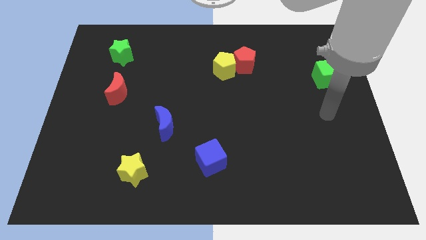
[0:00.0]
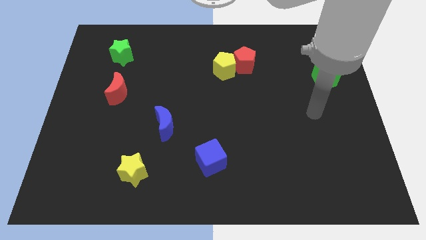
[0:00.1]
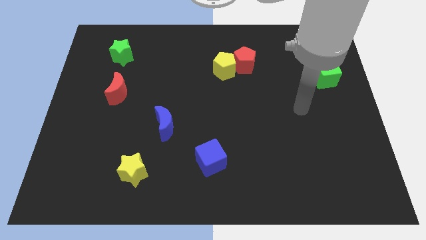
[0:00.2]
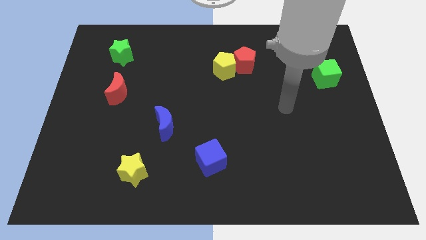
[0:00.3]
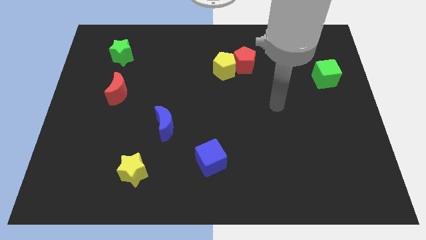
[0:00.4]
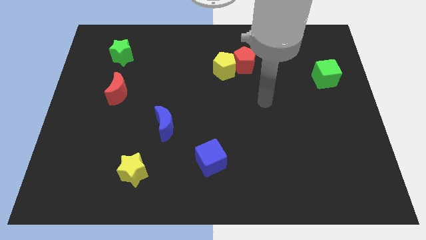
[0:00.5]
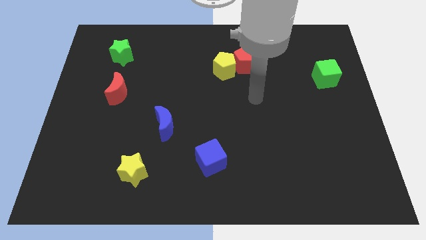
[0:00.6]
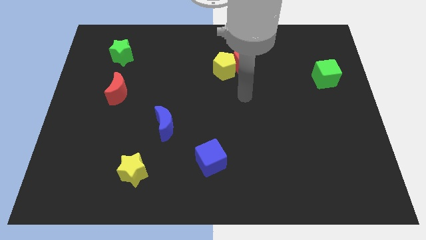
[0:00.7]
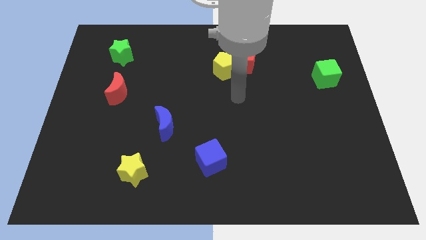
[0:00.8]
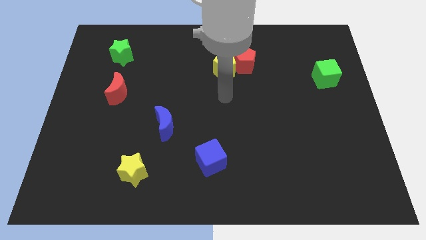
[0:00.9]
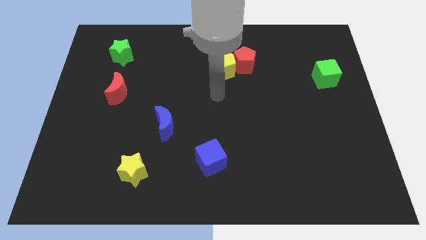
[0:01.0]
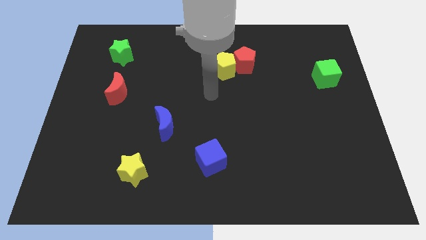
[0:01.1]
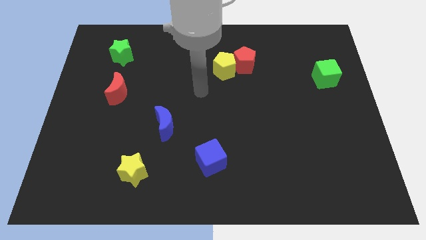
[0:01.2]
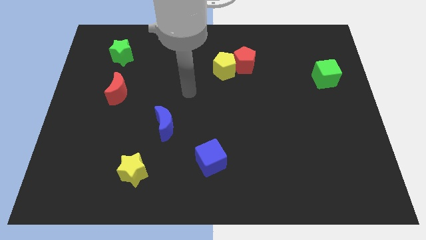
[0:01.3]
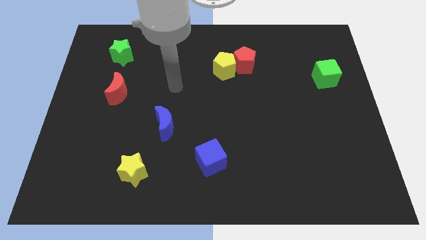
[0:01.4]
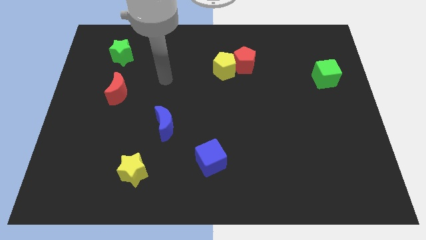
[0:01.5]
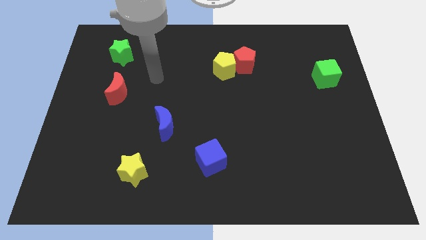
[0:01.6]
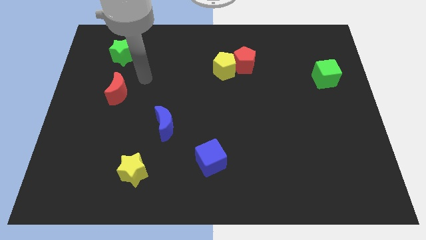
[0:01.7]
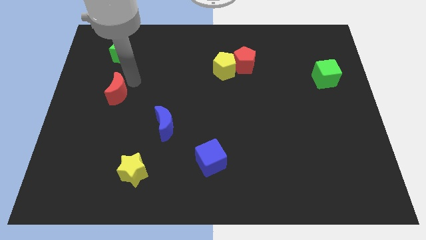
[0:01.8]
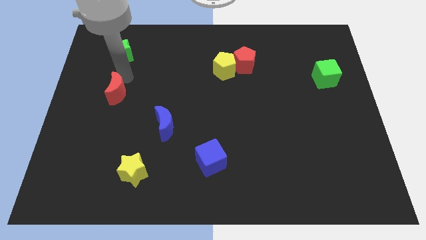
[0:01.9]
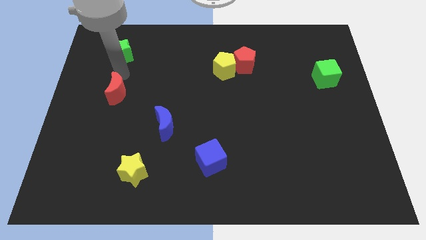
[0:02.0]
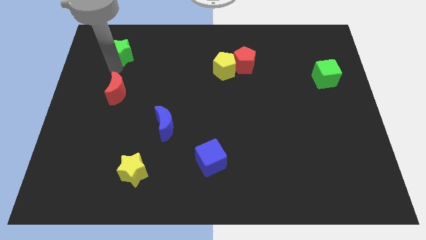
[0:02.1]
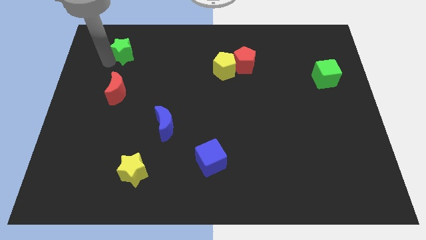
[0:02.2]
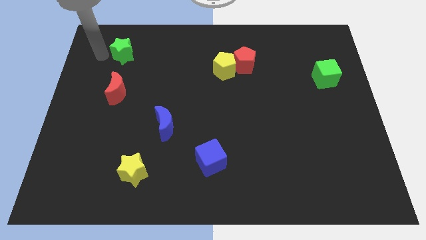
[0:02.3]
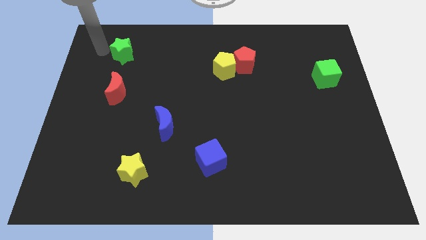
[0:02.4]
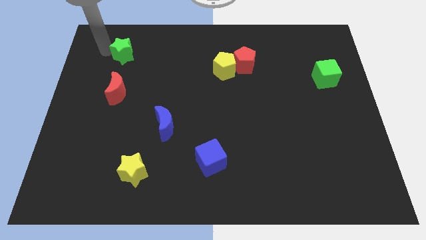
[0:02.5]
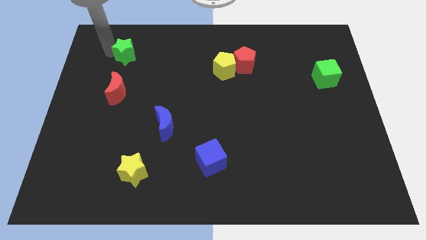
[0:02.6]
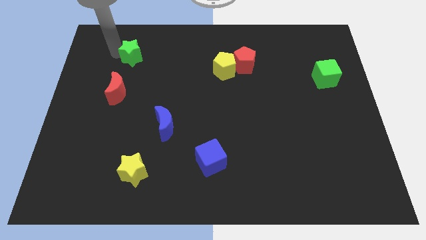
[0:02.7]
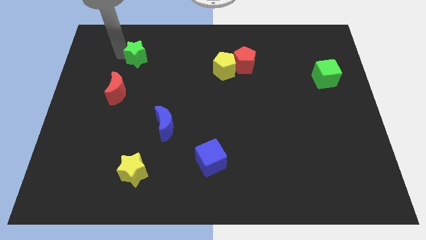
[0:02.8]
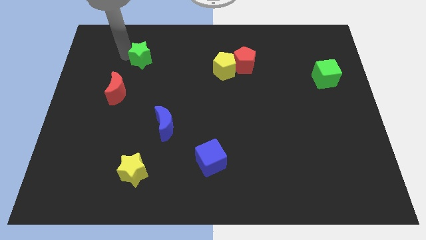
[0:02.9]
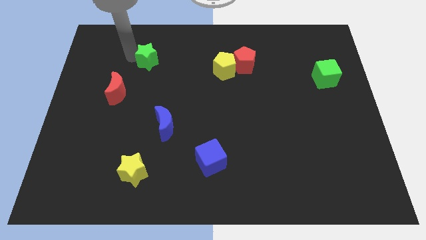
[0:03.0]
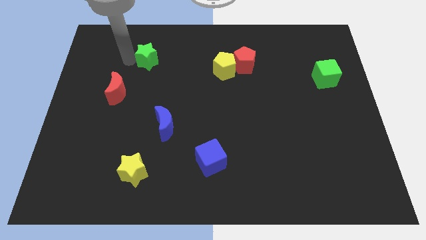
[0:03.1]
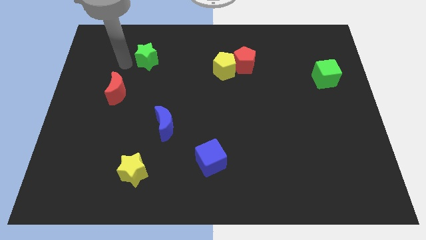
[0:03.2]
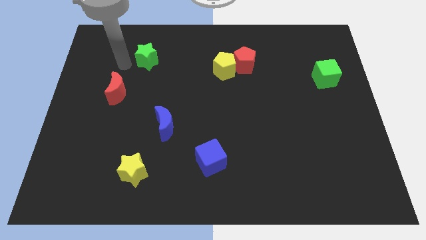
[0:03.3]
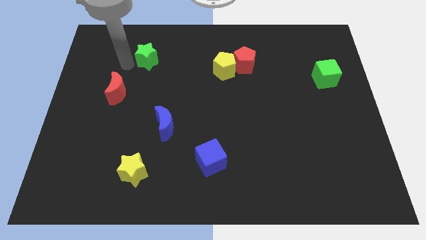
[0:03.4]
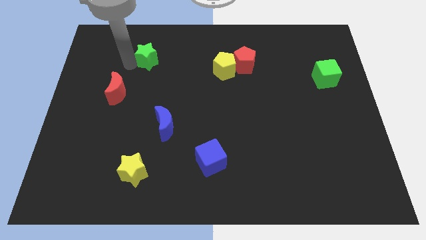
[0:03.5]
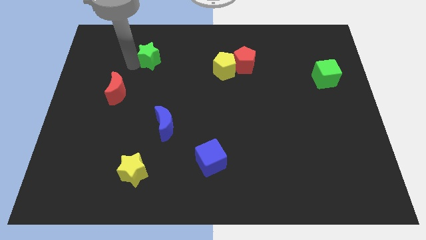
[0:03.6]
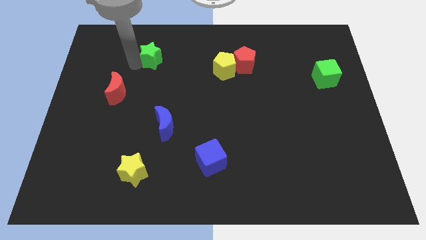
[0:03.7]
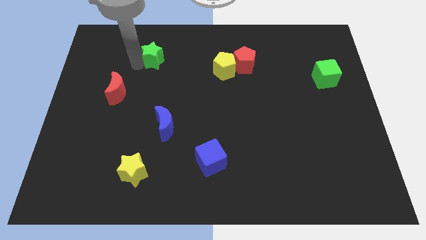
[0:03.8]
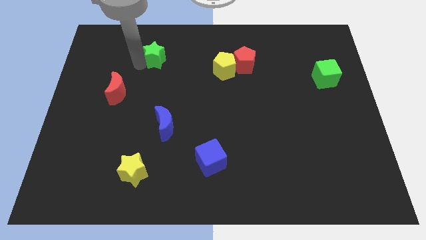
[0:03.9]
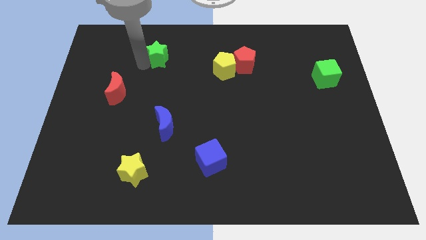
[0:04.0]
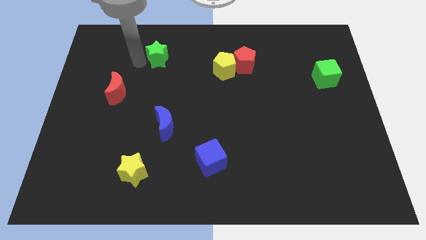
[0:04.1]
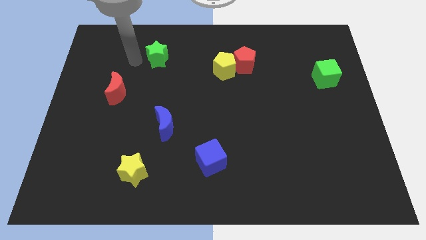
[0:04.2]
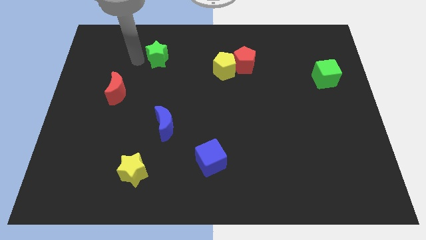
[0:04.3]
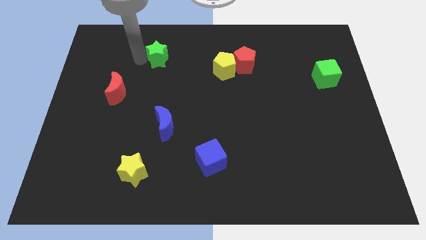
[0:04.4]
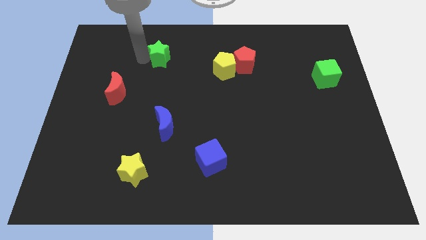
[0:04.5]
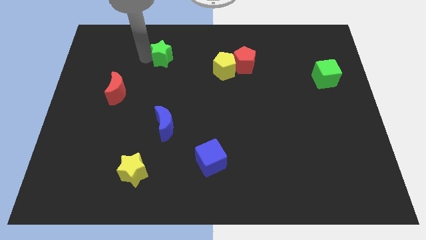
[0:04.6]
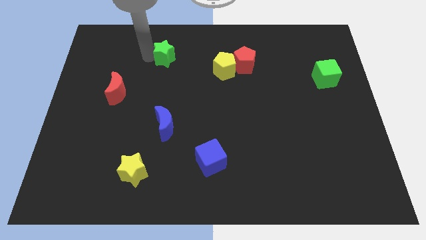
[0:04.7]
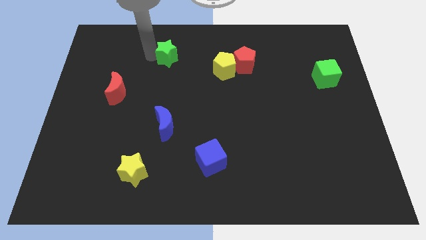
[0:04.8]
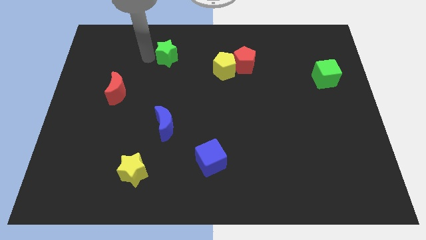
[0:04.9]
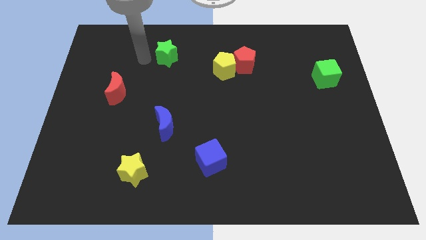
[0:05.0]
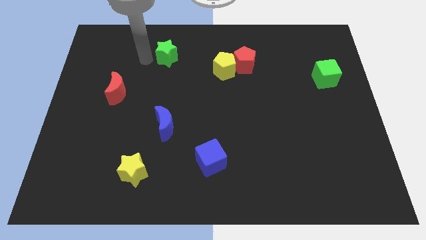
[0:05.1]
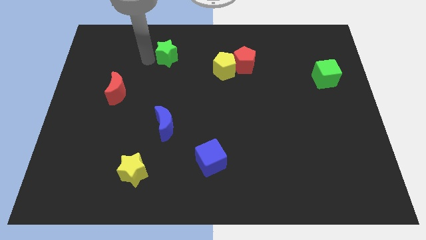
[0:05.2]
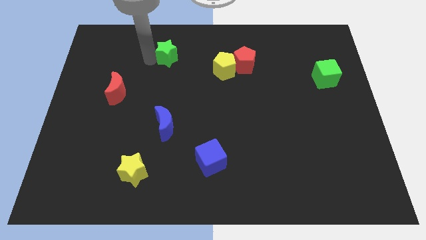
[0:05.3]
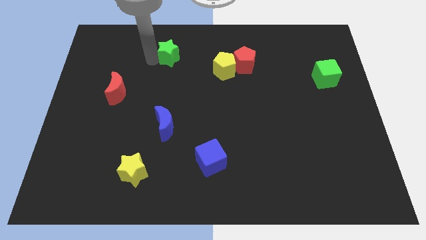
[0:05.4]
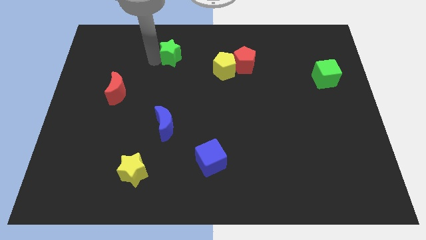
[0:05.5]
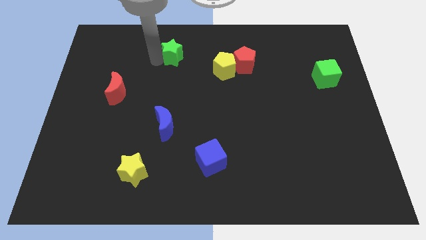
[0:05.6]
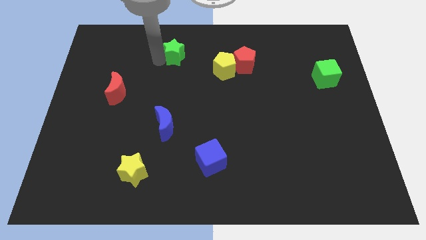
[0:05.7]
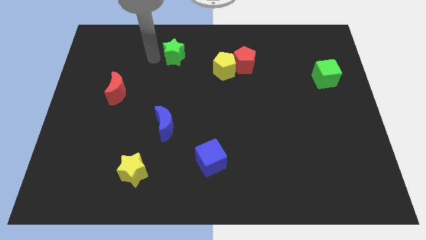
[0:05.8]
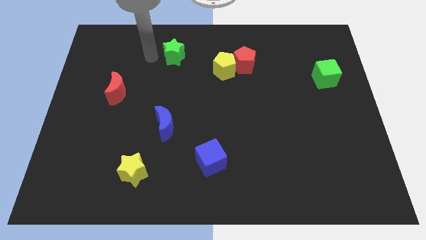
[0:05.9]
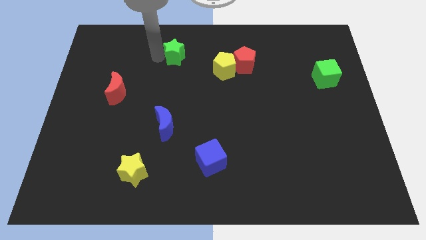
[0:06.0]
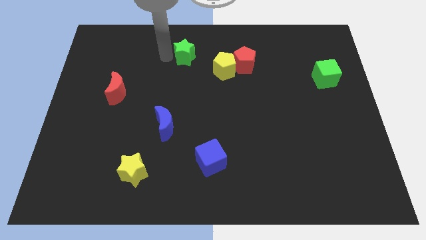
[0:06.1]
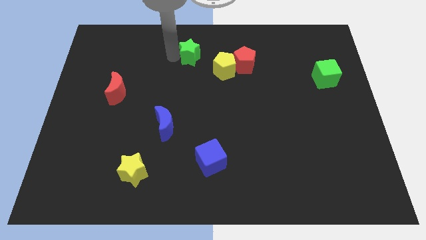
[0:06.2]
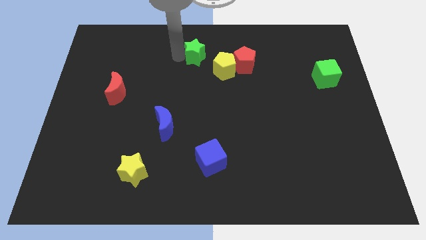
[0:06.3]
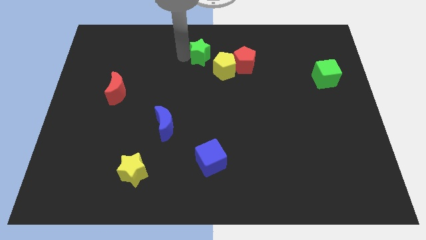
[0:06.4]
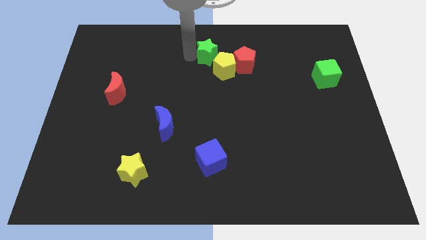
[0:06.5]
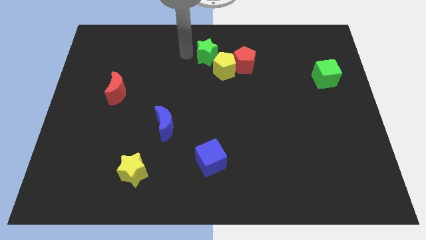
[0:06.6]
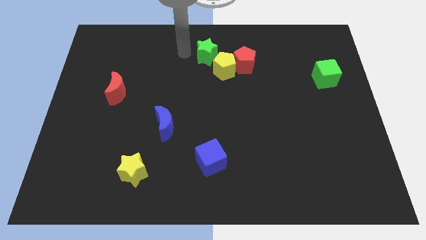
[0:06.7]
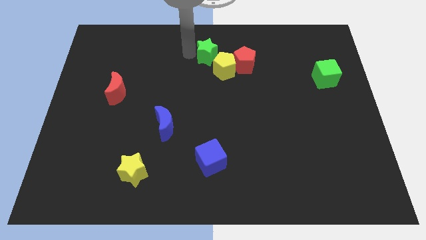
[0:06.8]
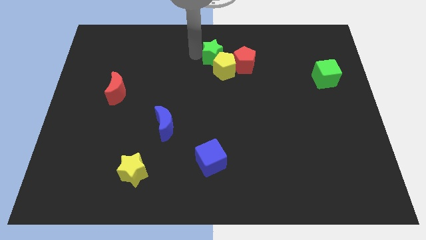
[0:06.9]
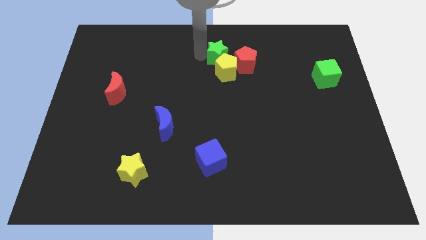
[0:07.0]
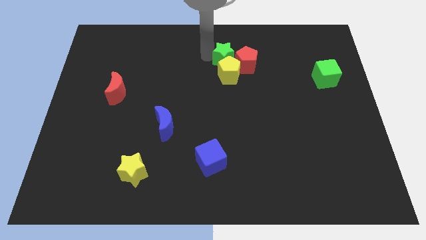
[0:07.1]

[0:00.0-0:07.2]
slide the green star towards the red pentagon
